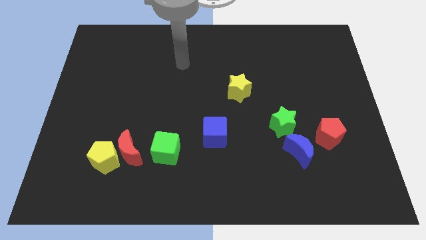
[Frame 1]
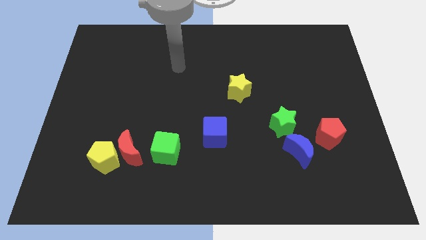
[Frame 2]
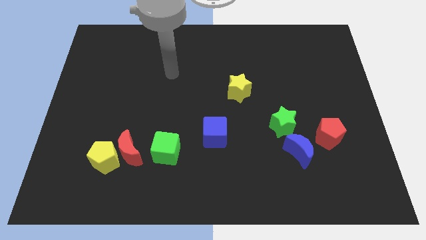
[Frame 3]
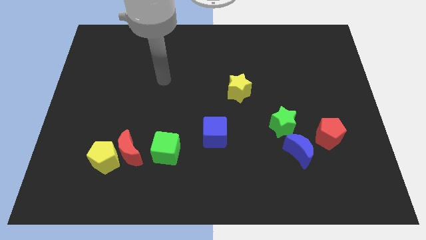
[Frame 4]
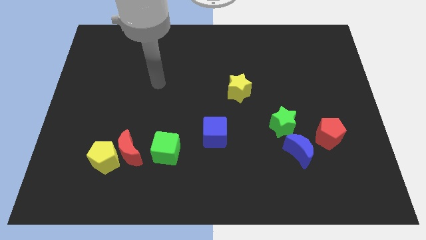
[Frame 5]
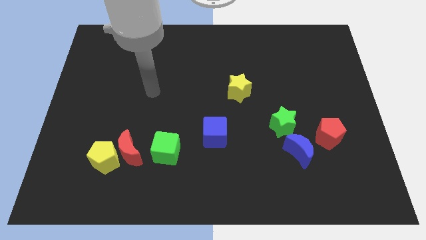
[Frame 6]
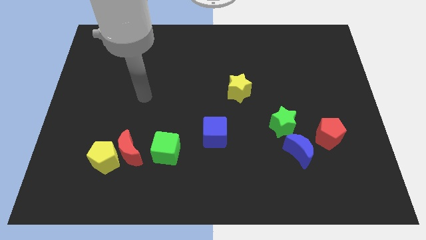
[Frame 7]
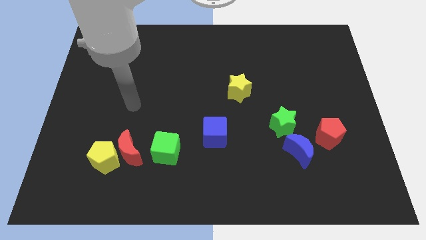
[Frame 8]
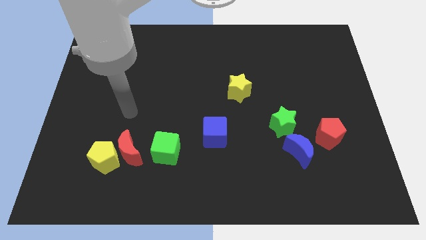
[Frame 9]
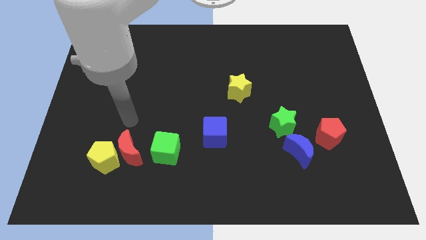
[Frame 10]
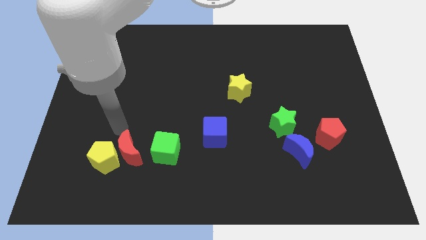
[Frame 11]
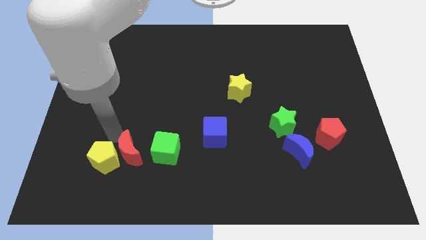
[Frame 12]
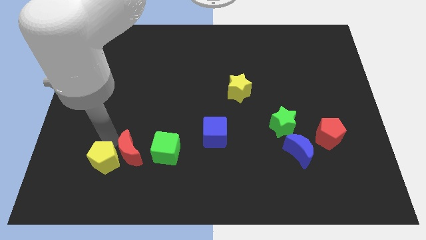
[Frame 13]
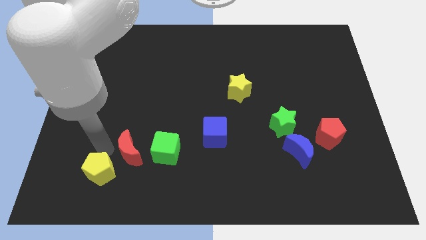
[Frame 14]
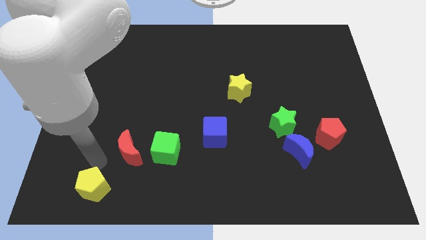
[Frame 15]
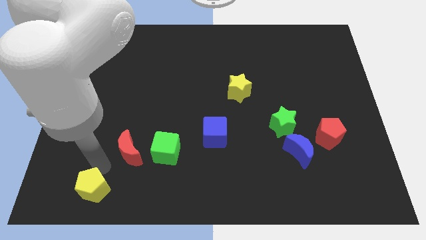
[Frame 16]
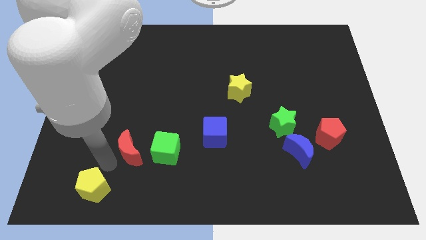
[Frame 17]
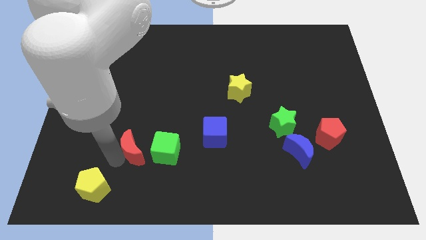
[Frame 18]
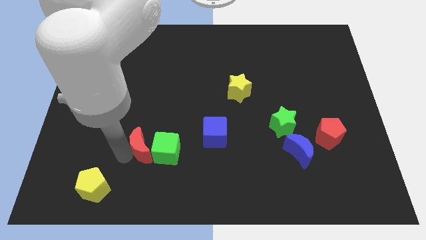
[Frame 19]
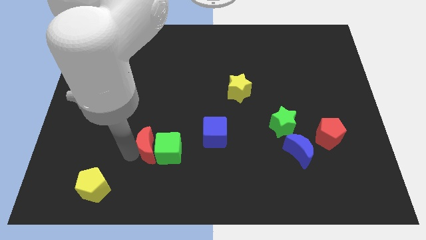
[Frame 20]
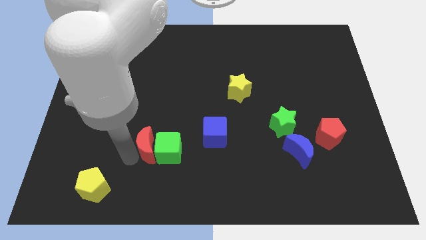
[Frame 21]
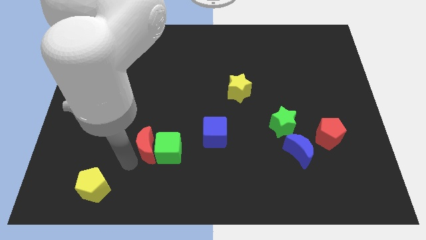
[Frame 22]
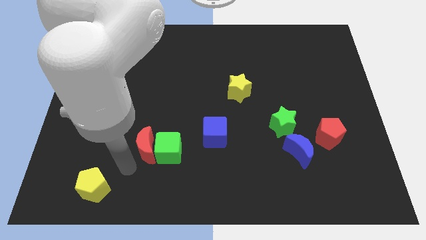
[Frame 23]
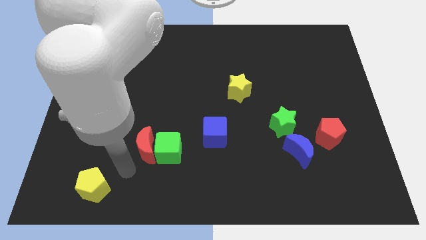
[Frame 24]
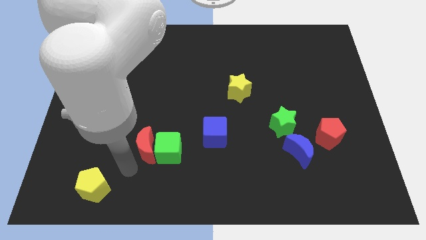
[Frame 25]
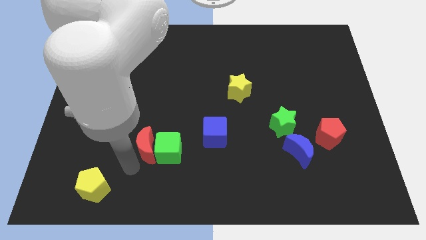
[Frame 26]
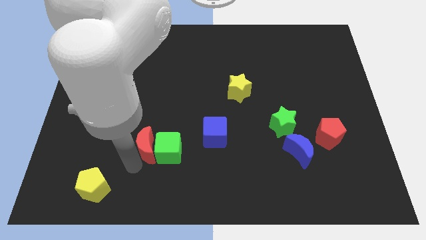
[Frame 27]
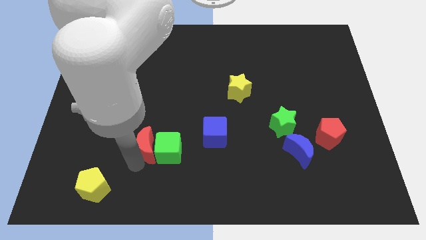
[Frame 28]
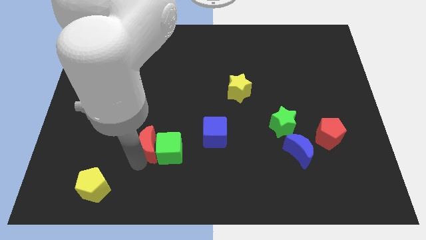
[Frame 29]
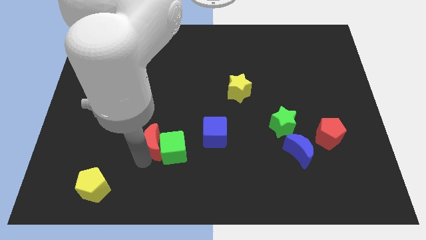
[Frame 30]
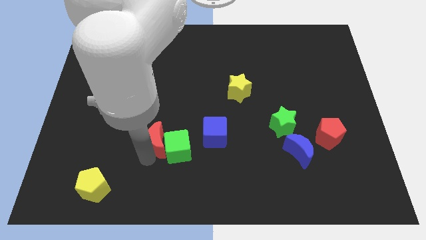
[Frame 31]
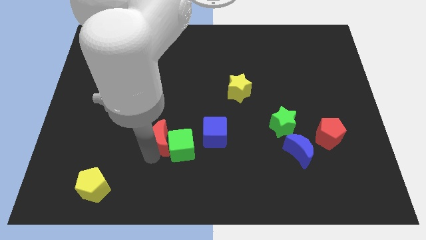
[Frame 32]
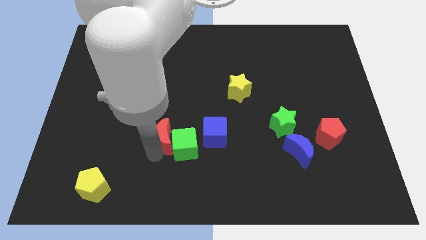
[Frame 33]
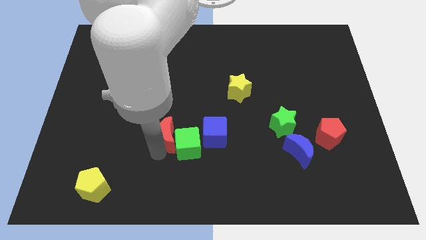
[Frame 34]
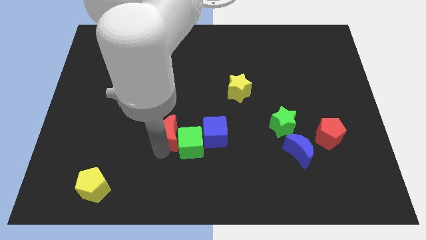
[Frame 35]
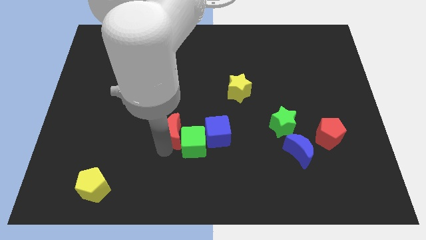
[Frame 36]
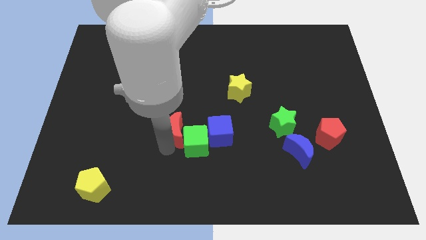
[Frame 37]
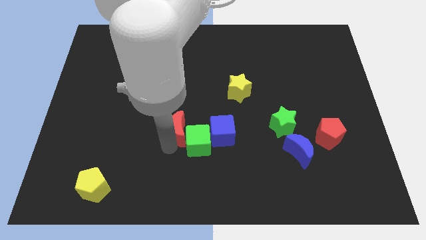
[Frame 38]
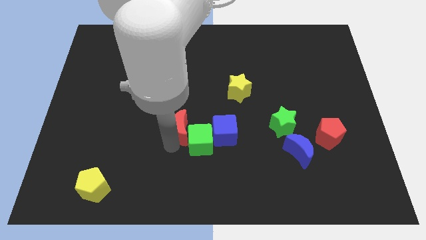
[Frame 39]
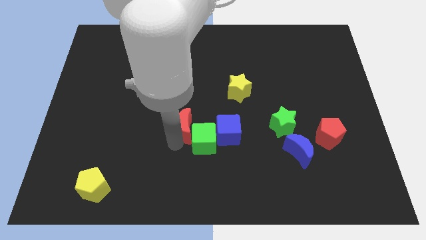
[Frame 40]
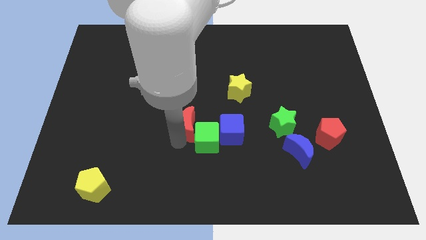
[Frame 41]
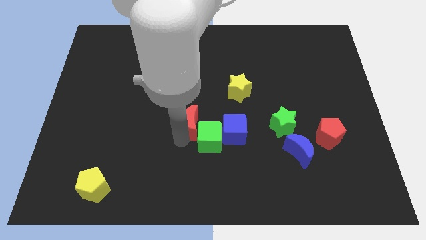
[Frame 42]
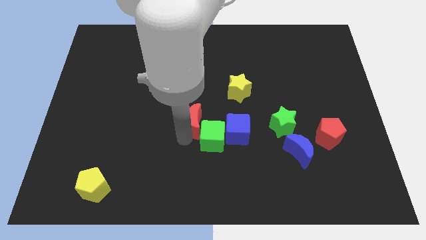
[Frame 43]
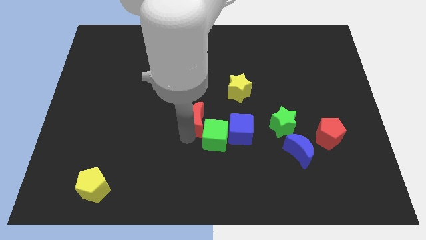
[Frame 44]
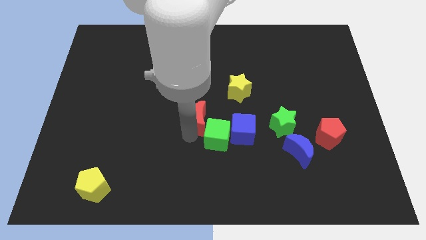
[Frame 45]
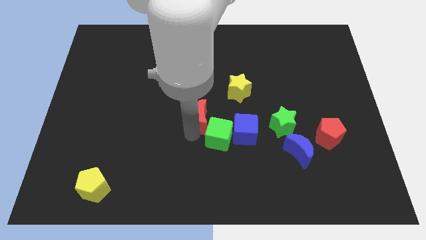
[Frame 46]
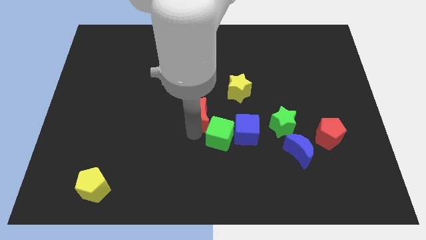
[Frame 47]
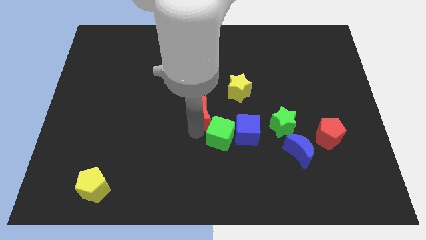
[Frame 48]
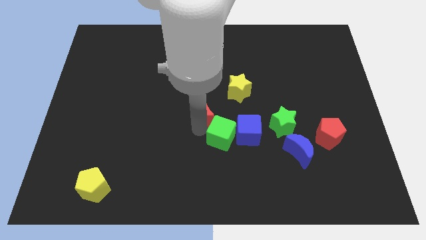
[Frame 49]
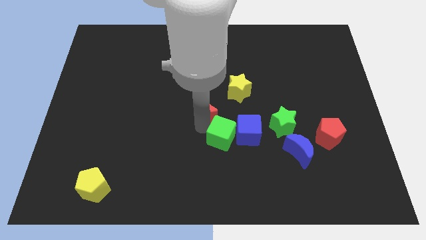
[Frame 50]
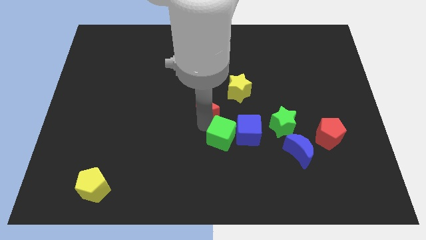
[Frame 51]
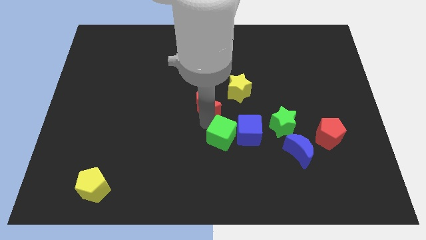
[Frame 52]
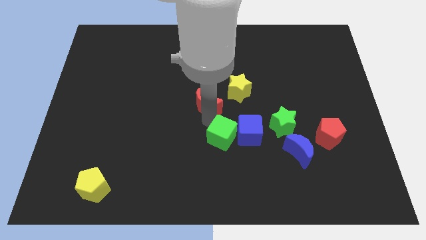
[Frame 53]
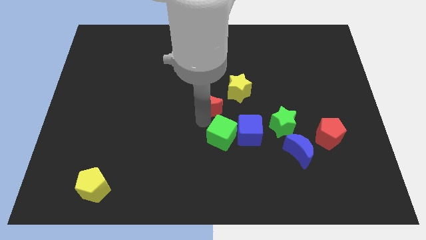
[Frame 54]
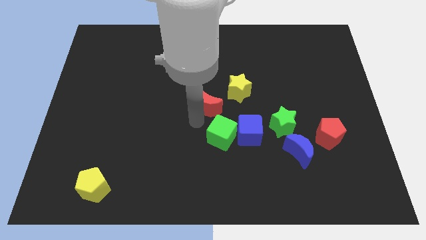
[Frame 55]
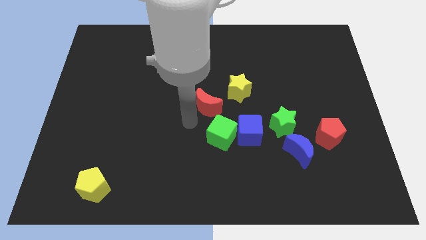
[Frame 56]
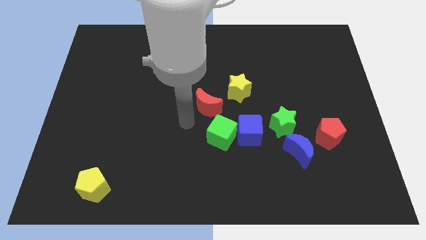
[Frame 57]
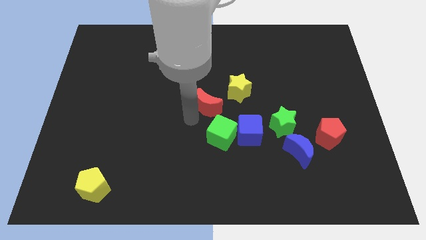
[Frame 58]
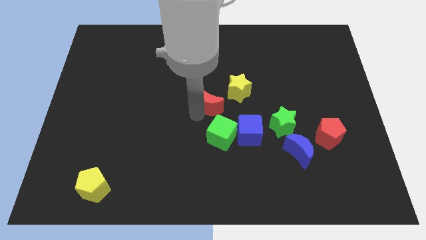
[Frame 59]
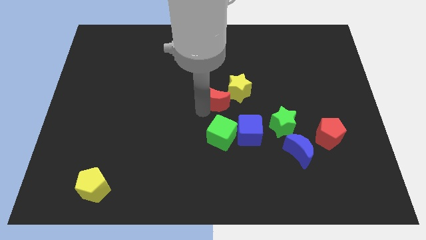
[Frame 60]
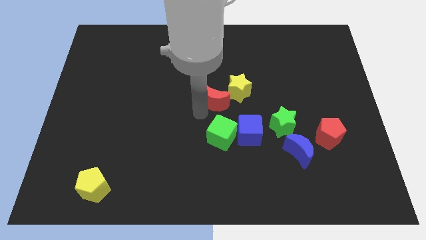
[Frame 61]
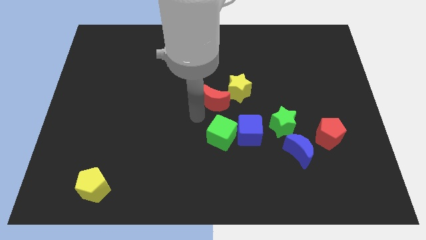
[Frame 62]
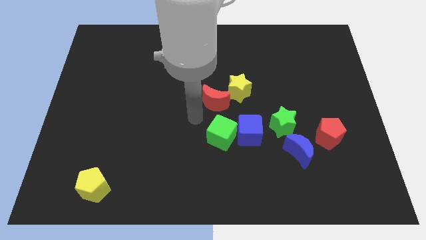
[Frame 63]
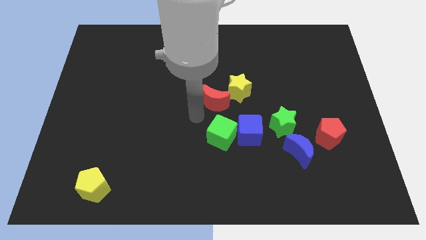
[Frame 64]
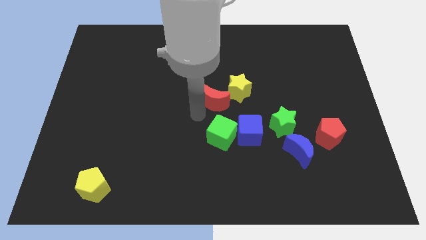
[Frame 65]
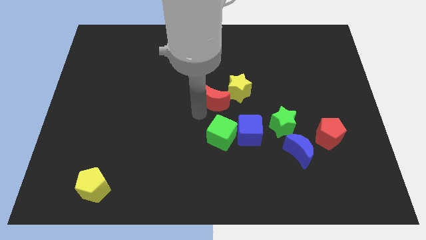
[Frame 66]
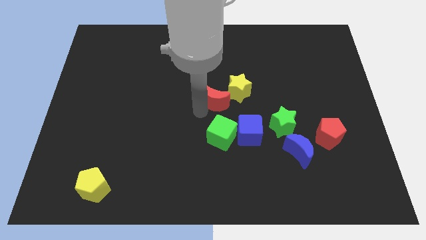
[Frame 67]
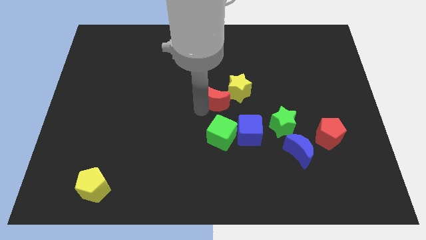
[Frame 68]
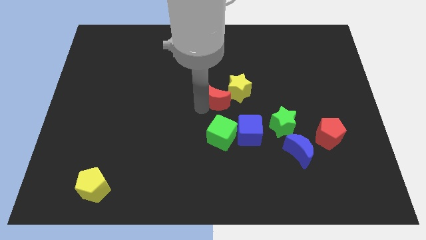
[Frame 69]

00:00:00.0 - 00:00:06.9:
slide the red moon close to the yellow star
